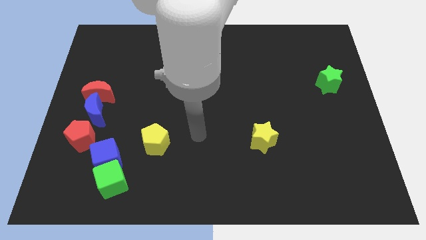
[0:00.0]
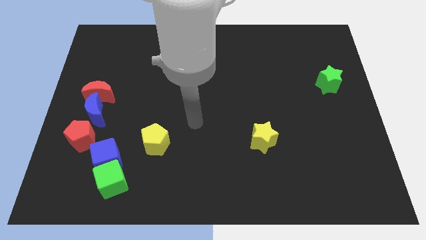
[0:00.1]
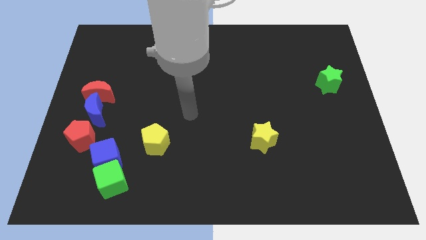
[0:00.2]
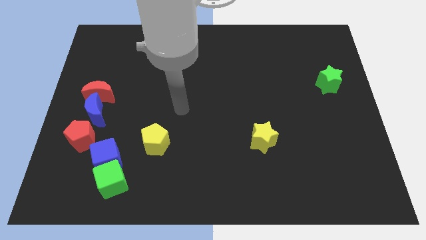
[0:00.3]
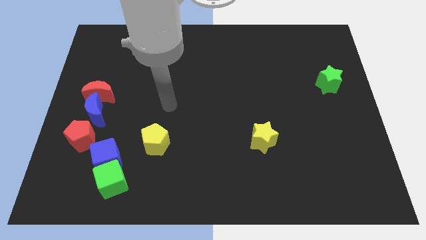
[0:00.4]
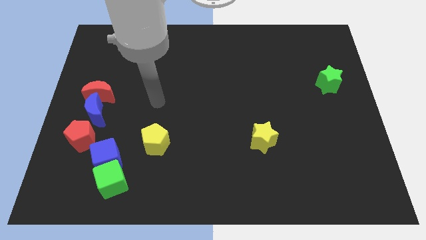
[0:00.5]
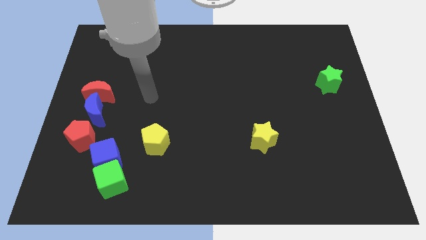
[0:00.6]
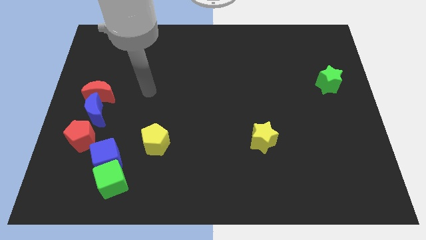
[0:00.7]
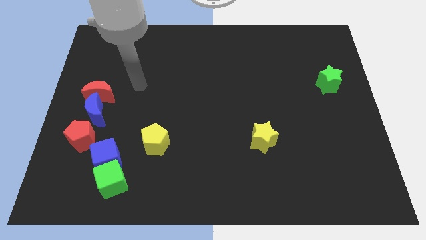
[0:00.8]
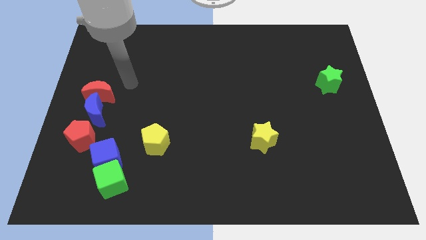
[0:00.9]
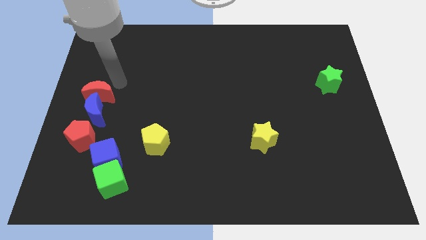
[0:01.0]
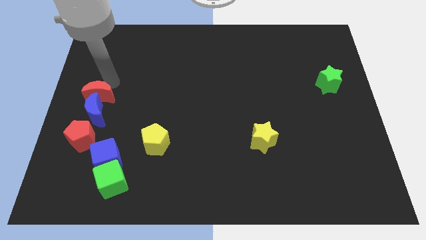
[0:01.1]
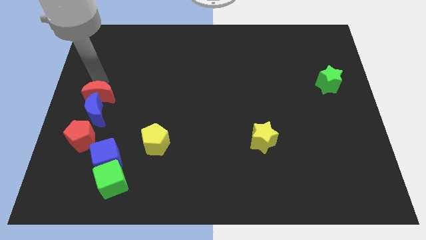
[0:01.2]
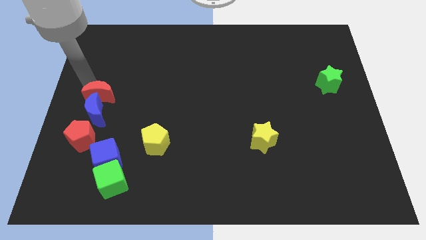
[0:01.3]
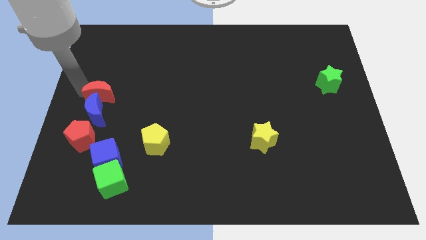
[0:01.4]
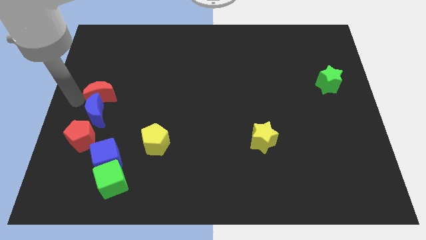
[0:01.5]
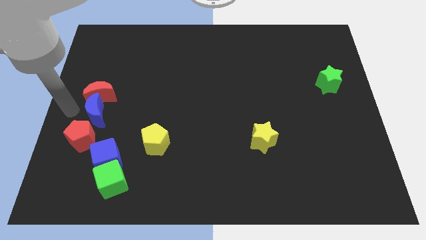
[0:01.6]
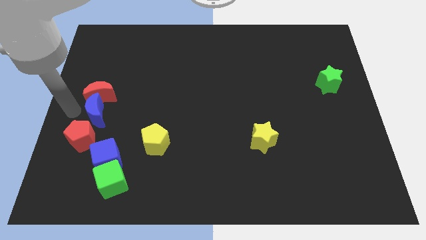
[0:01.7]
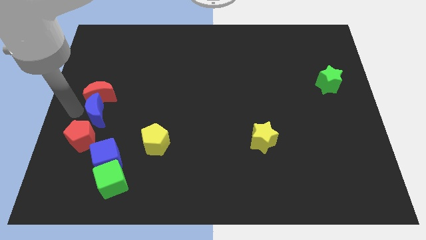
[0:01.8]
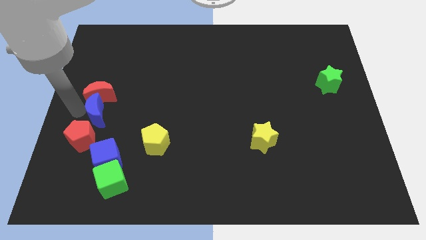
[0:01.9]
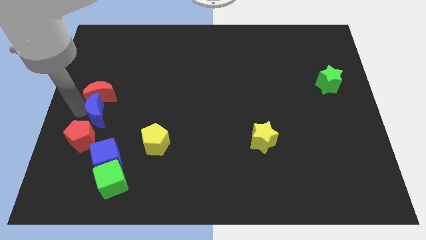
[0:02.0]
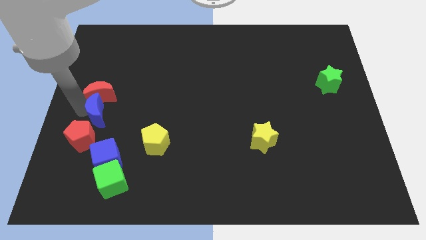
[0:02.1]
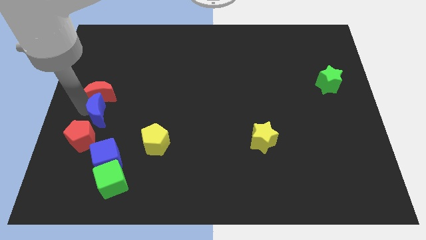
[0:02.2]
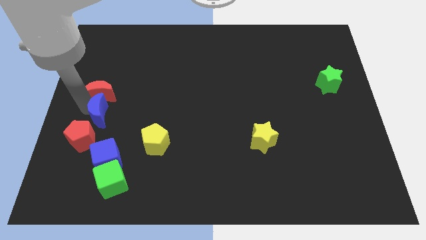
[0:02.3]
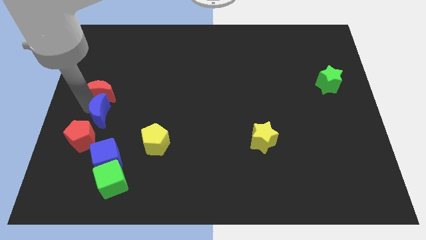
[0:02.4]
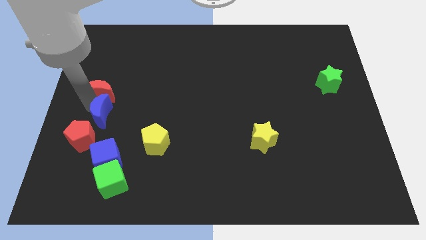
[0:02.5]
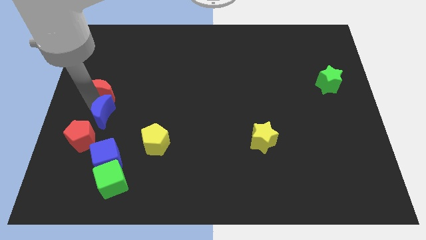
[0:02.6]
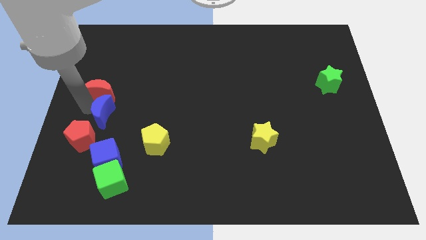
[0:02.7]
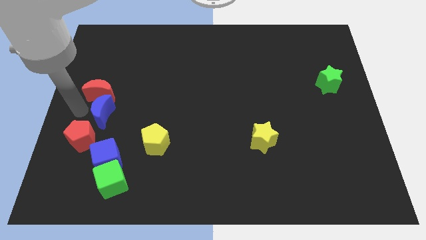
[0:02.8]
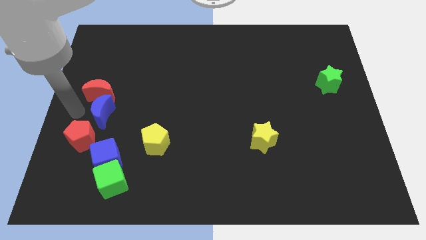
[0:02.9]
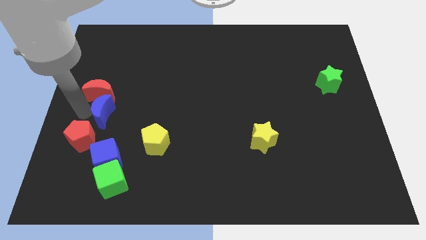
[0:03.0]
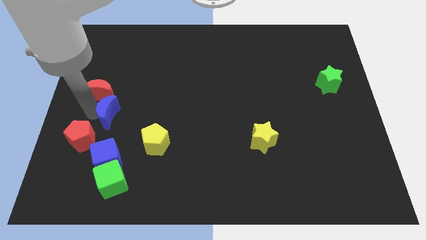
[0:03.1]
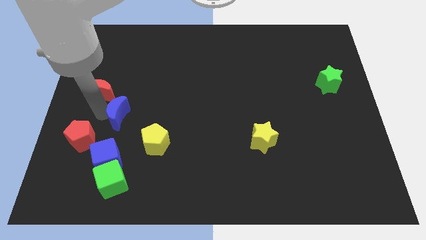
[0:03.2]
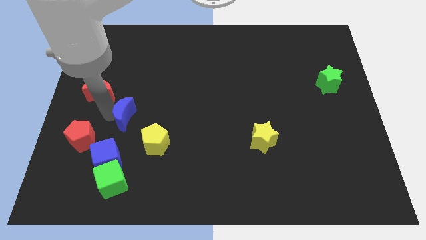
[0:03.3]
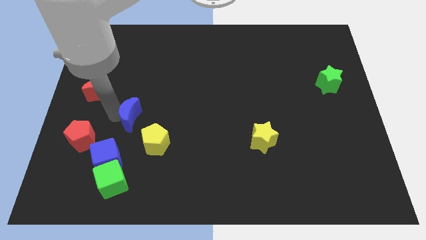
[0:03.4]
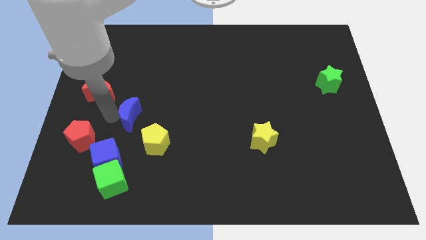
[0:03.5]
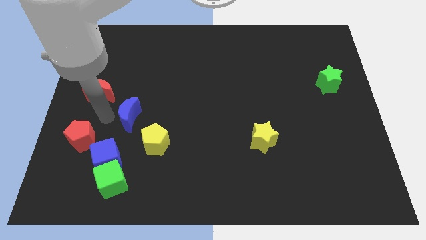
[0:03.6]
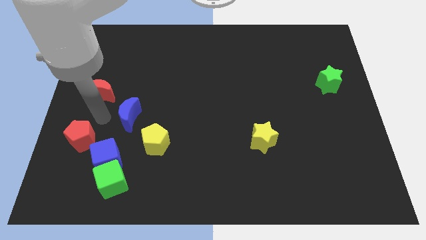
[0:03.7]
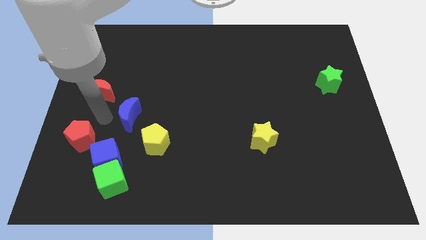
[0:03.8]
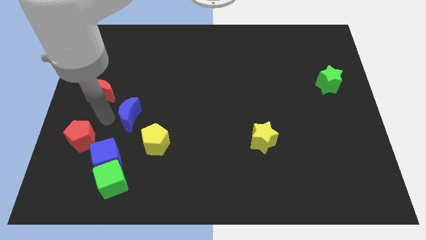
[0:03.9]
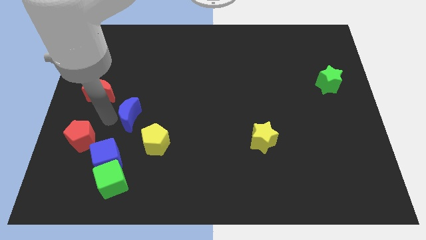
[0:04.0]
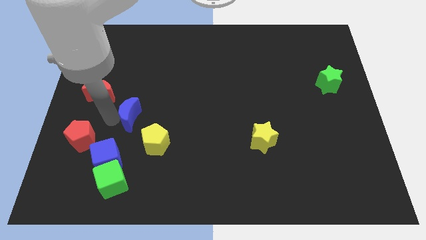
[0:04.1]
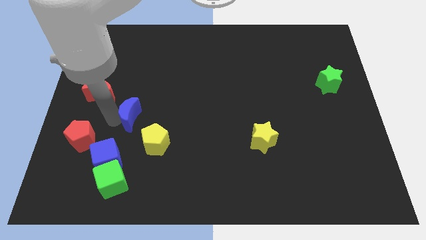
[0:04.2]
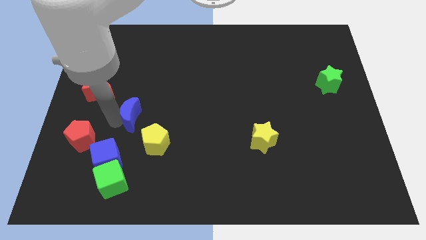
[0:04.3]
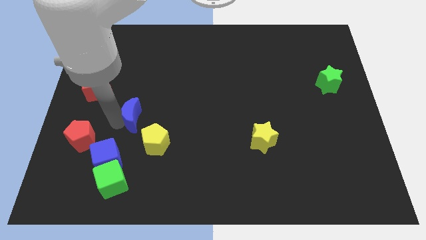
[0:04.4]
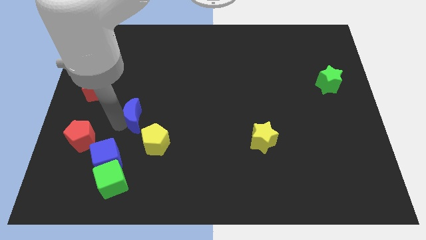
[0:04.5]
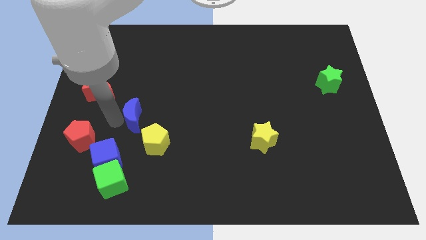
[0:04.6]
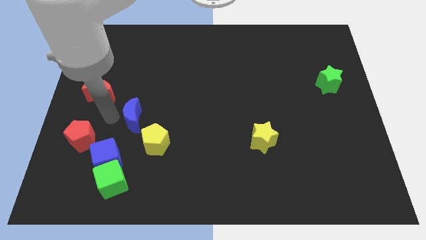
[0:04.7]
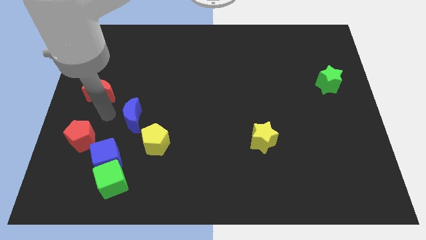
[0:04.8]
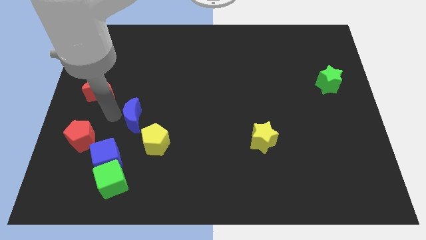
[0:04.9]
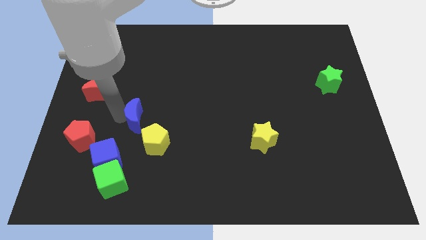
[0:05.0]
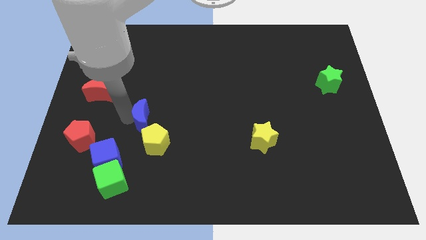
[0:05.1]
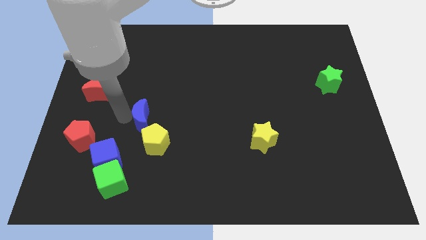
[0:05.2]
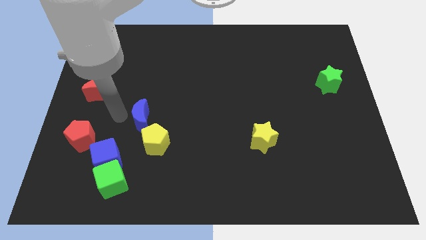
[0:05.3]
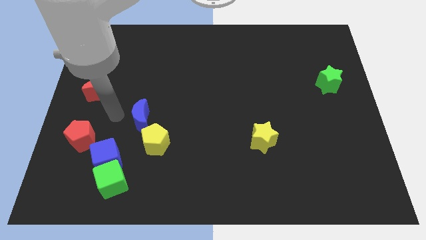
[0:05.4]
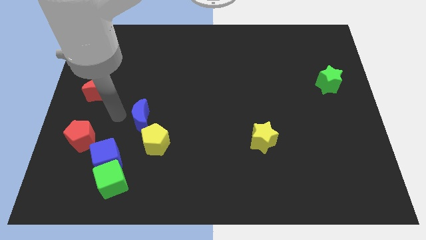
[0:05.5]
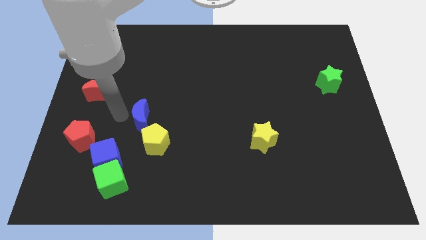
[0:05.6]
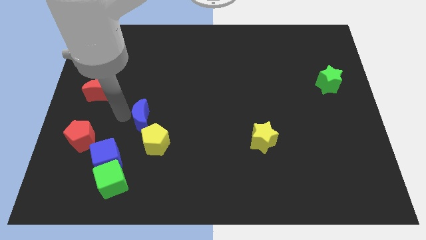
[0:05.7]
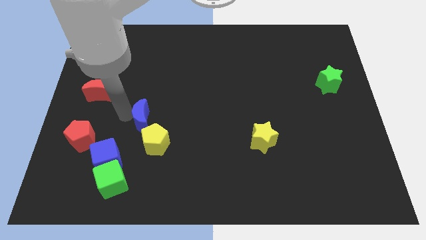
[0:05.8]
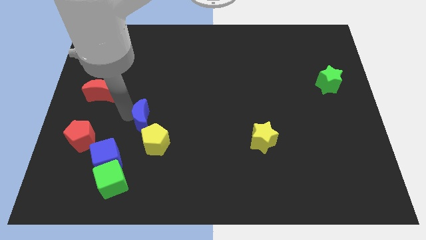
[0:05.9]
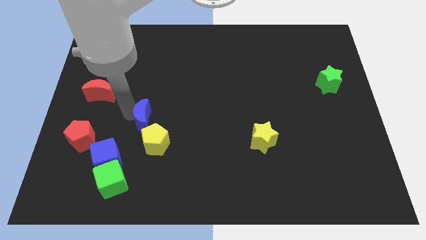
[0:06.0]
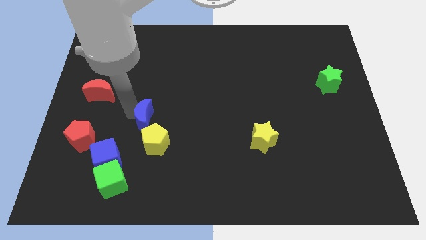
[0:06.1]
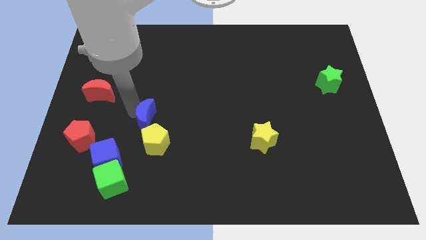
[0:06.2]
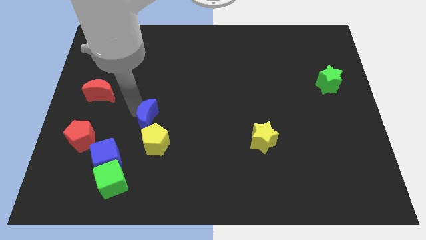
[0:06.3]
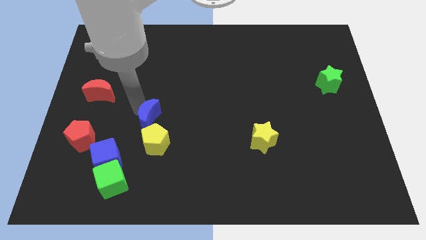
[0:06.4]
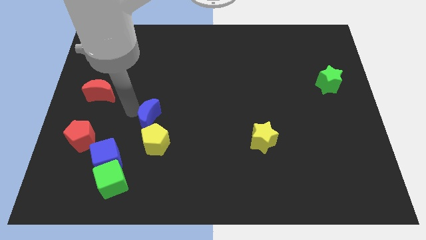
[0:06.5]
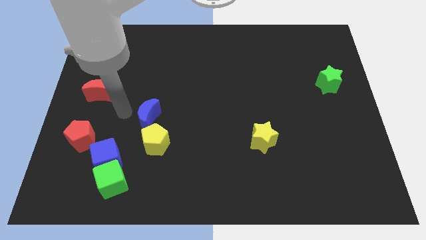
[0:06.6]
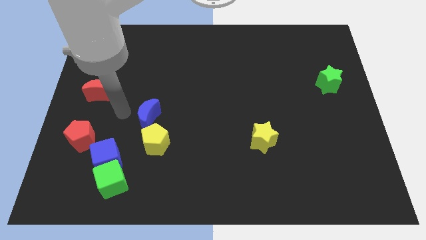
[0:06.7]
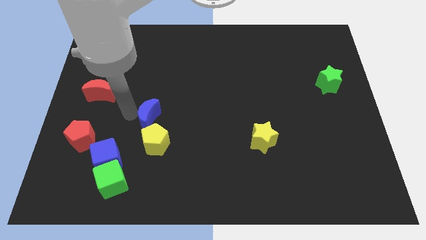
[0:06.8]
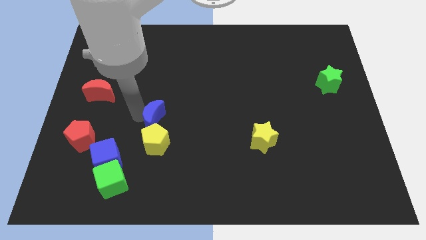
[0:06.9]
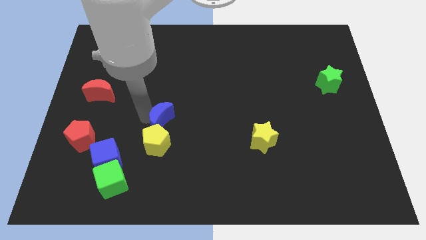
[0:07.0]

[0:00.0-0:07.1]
slide the blue moon to the top right of the yellow pentagon
